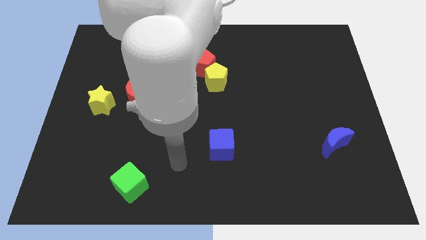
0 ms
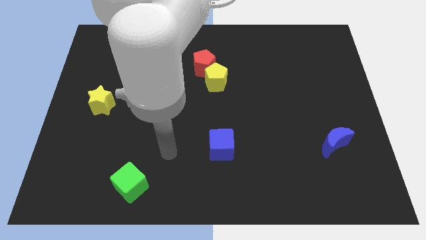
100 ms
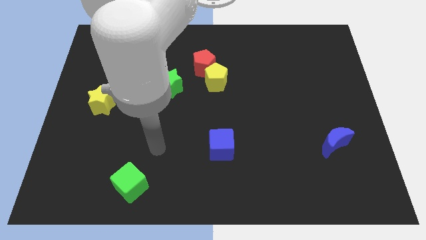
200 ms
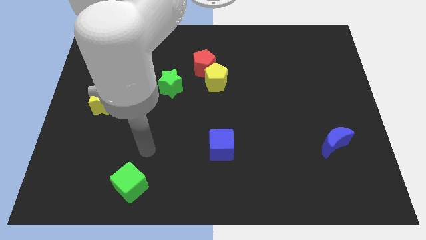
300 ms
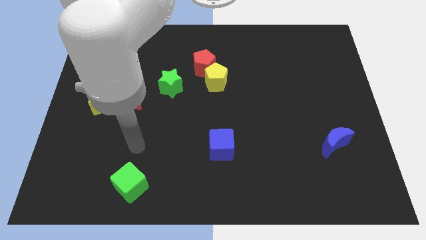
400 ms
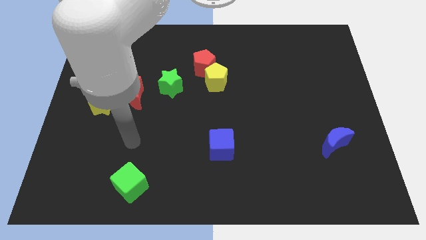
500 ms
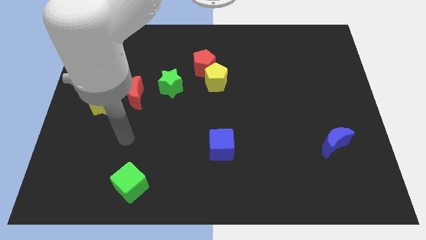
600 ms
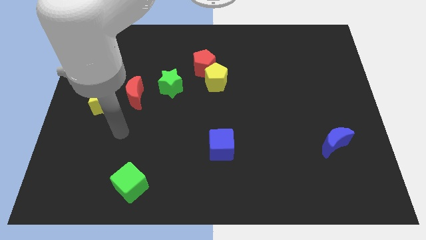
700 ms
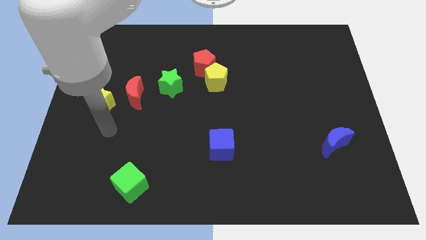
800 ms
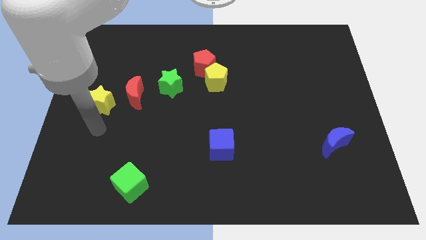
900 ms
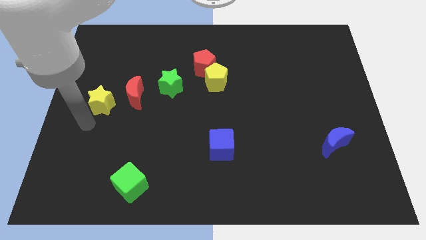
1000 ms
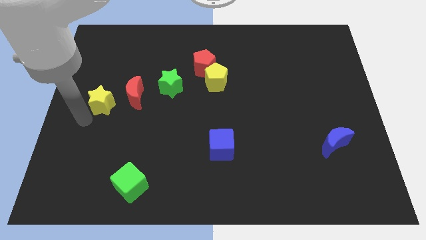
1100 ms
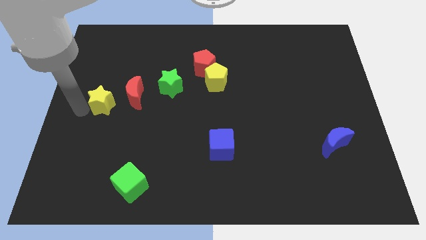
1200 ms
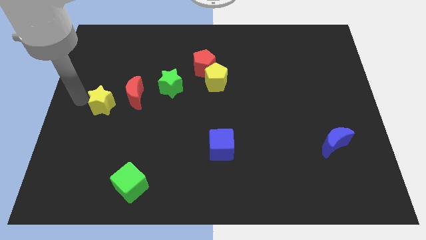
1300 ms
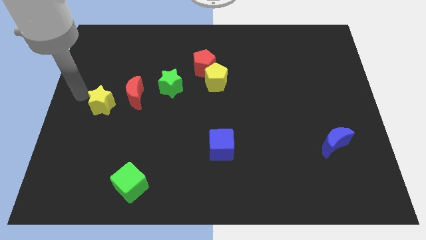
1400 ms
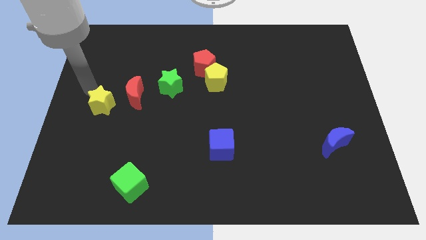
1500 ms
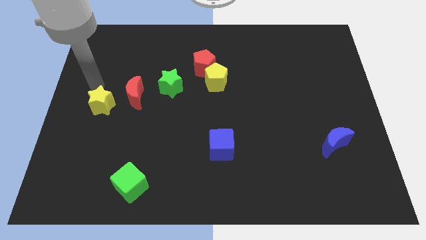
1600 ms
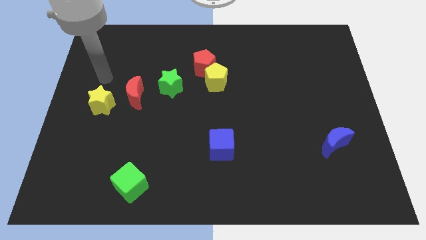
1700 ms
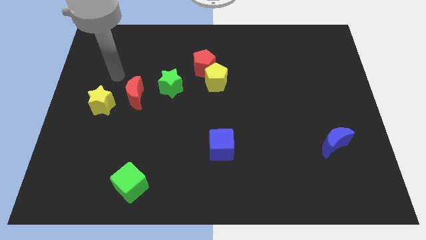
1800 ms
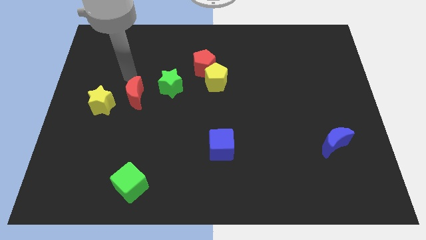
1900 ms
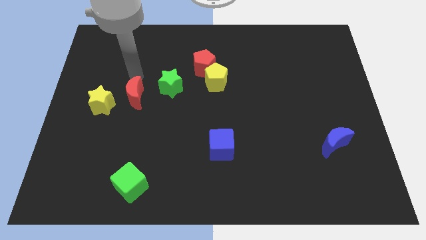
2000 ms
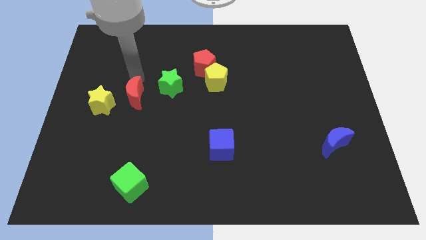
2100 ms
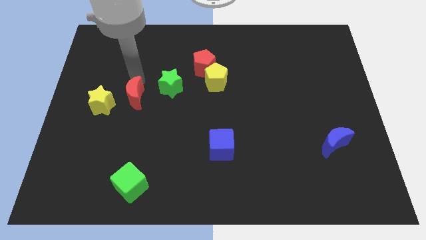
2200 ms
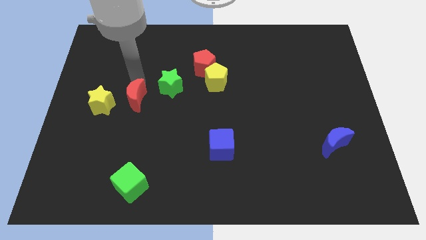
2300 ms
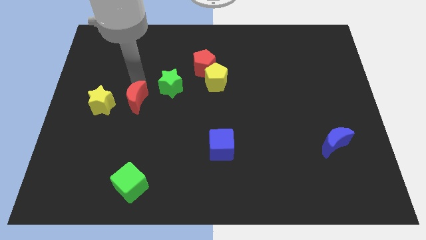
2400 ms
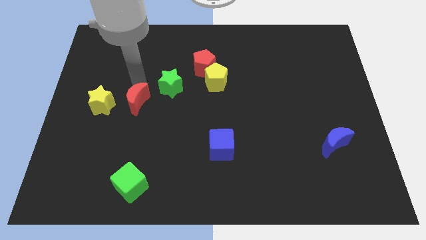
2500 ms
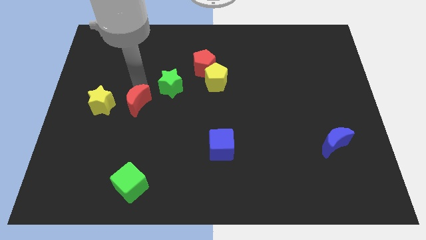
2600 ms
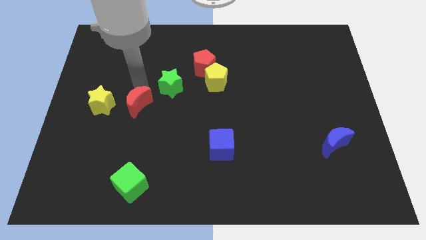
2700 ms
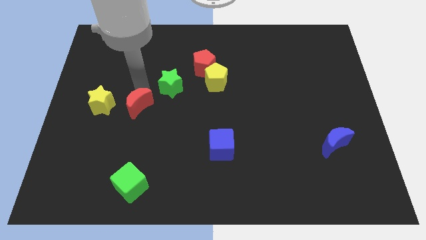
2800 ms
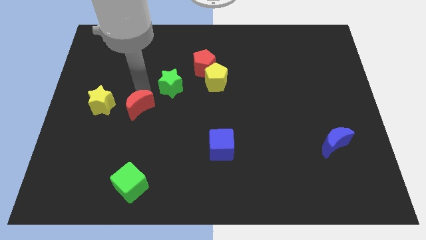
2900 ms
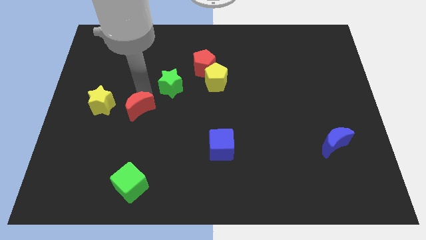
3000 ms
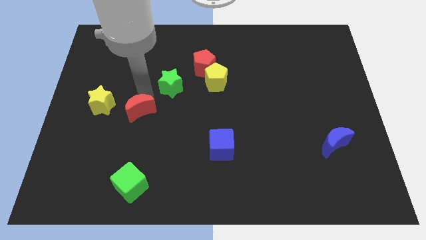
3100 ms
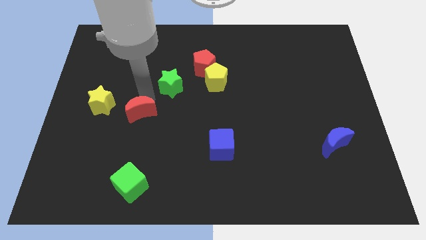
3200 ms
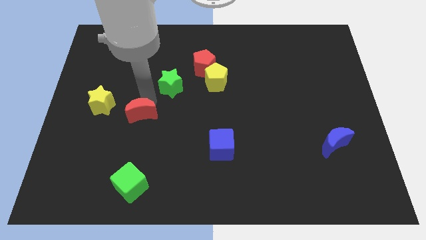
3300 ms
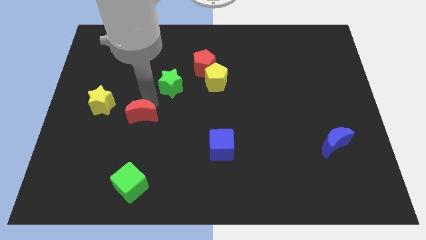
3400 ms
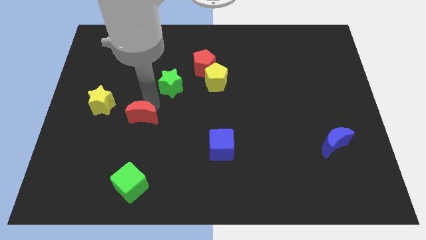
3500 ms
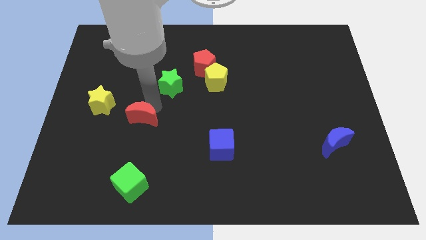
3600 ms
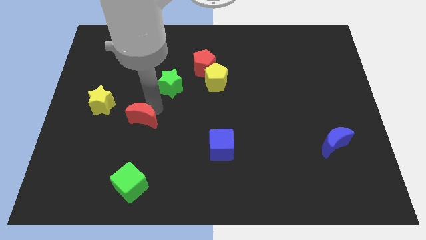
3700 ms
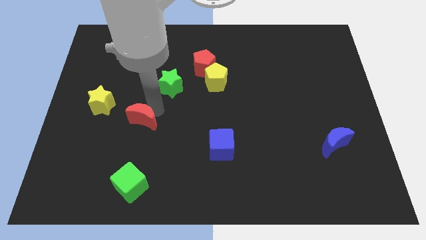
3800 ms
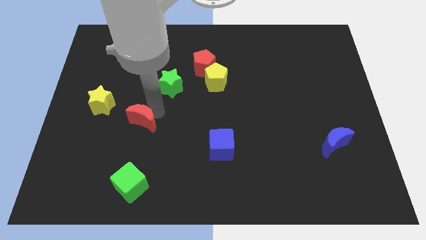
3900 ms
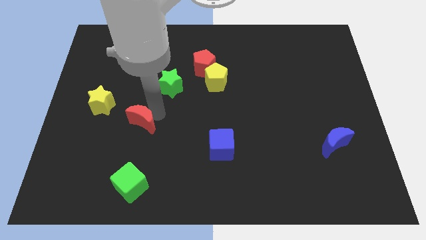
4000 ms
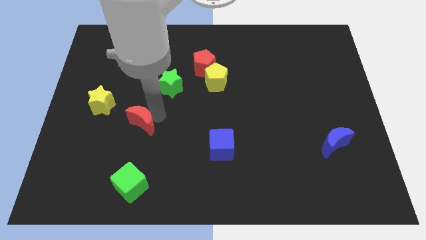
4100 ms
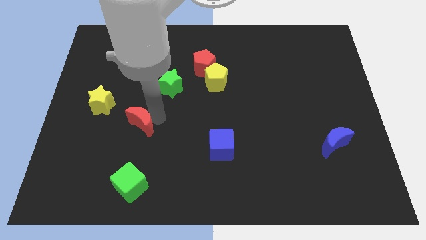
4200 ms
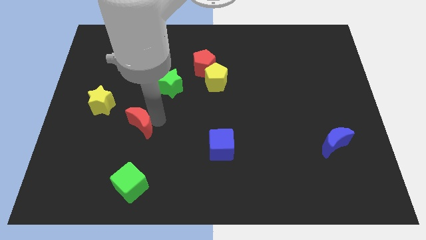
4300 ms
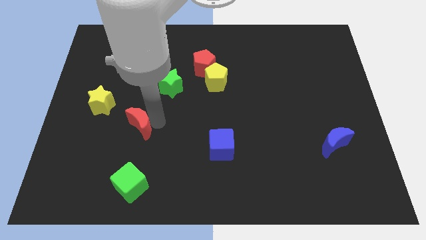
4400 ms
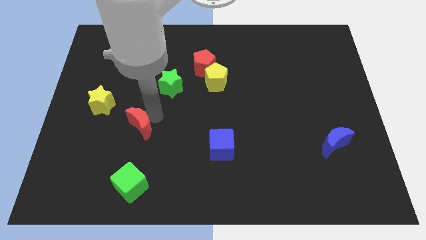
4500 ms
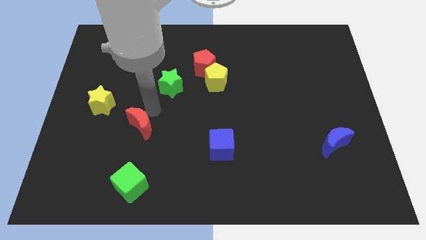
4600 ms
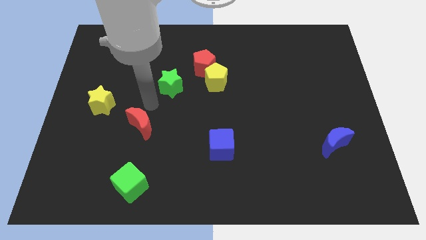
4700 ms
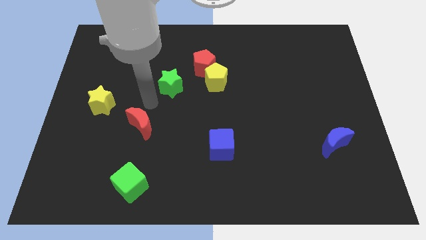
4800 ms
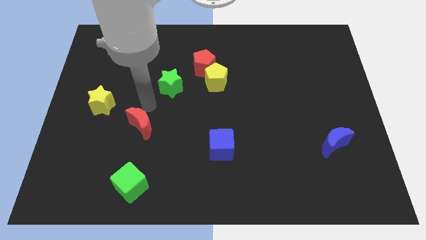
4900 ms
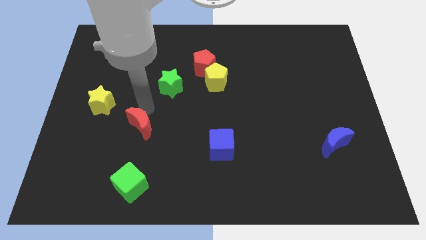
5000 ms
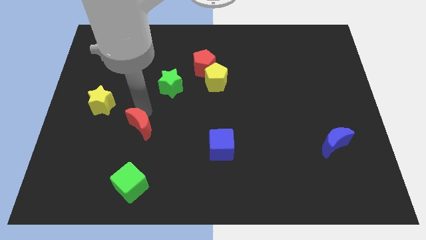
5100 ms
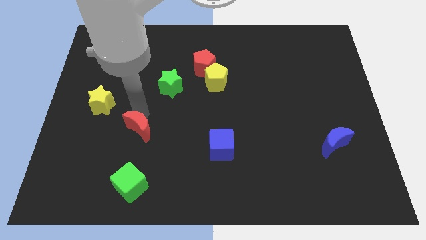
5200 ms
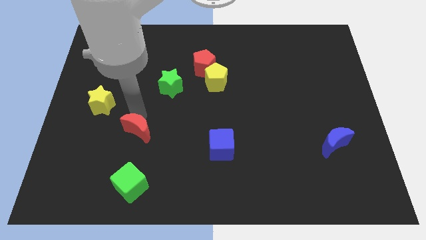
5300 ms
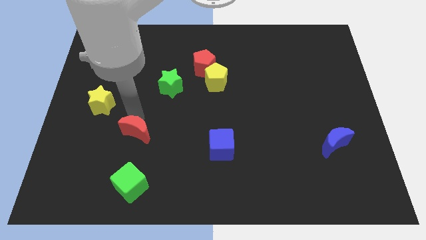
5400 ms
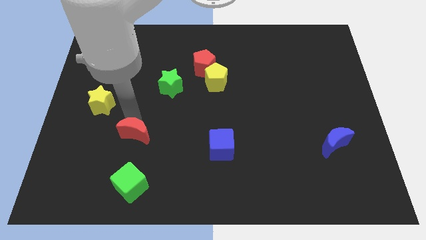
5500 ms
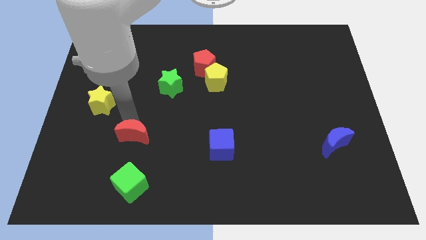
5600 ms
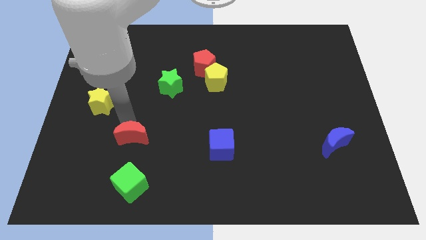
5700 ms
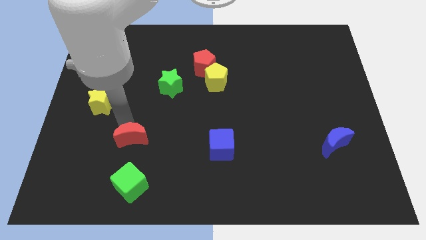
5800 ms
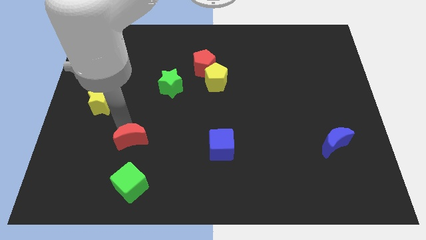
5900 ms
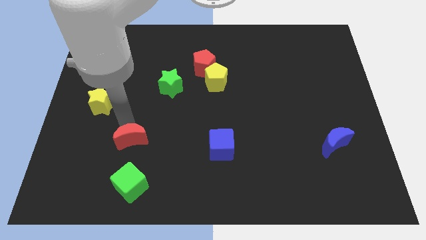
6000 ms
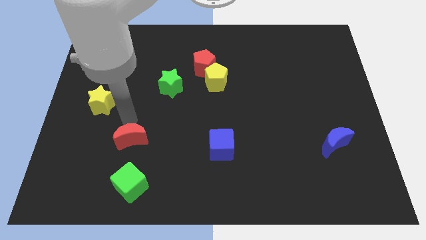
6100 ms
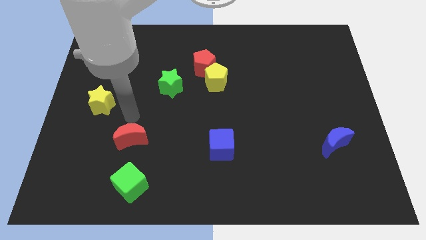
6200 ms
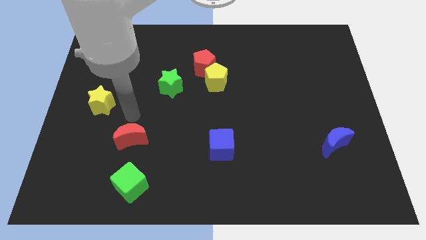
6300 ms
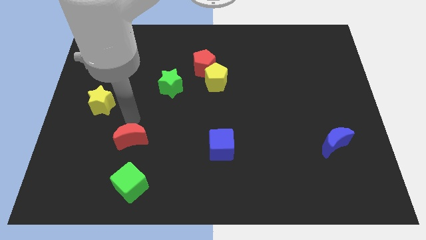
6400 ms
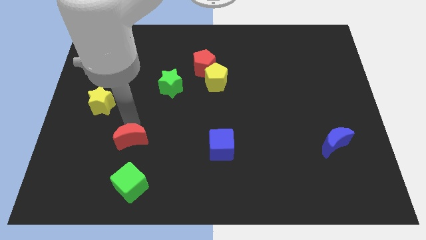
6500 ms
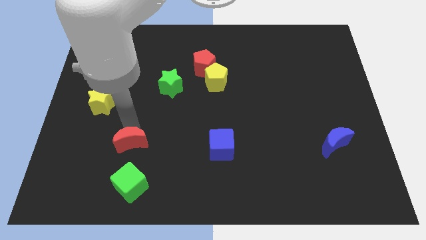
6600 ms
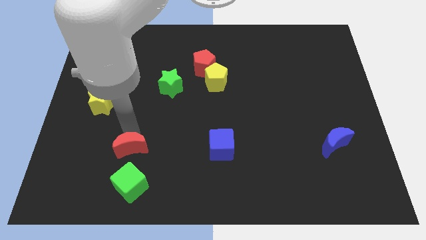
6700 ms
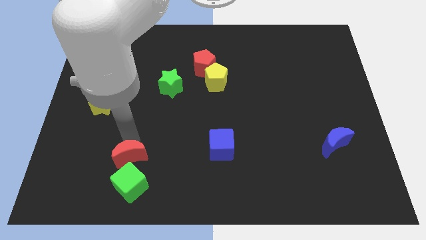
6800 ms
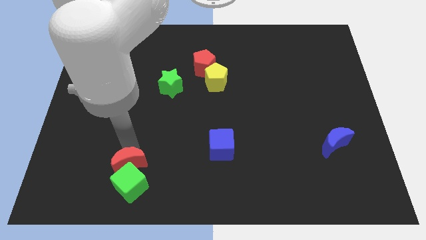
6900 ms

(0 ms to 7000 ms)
move the red moon to the green cube
